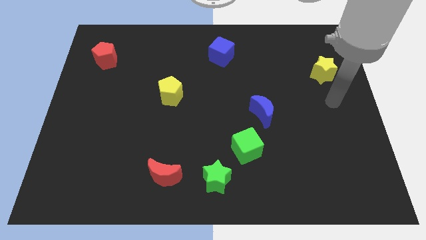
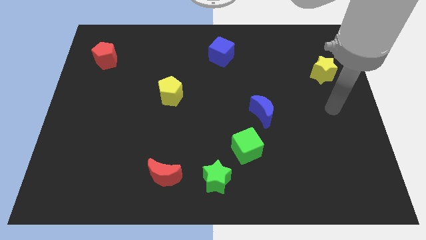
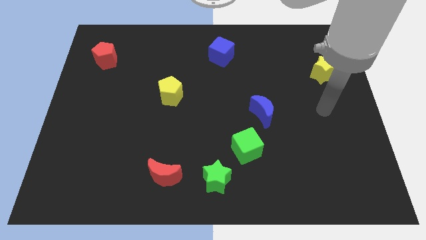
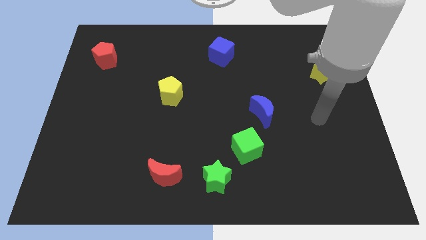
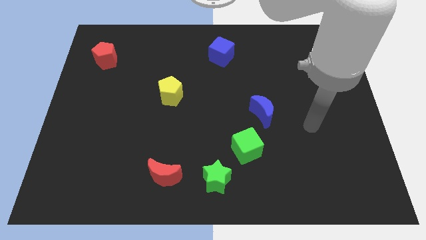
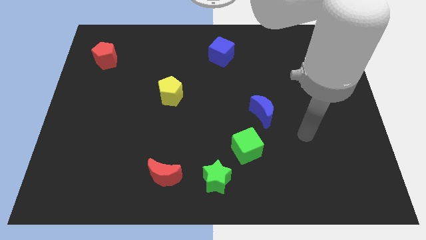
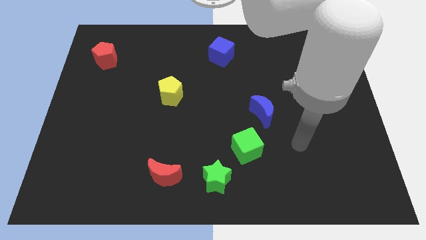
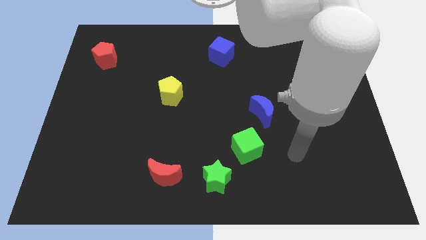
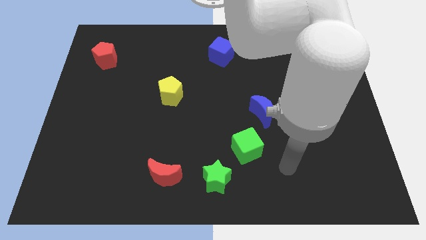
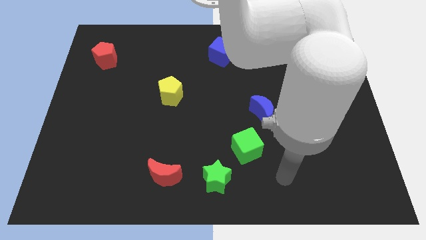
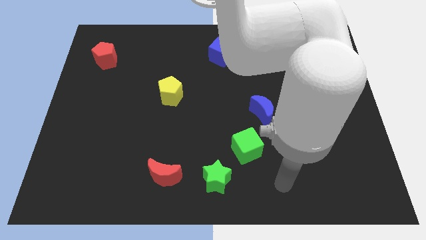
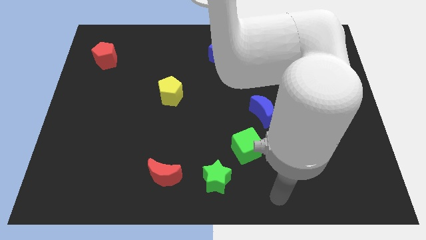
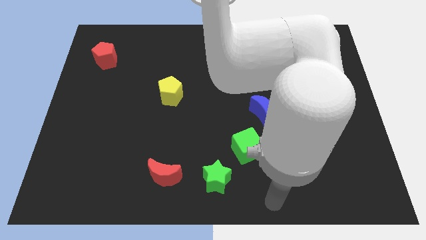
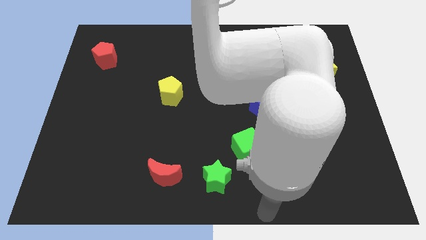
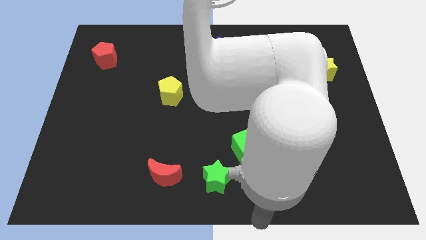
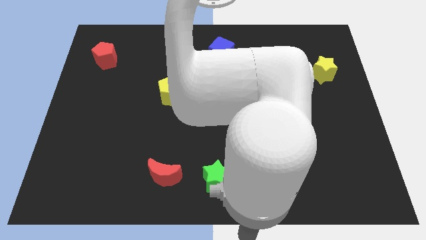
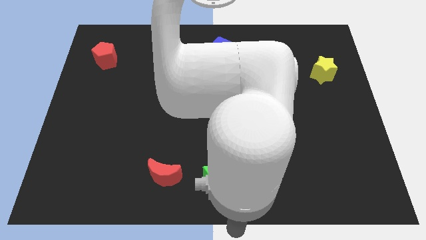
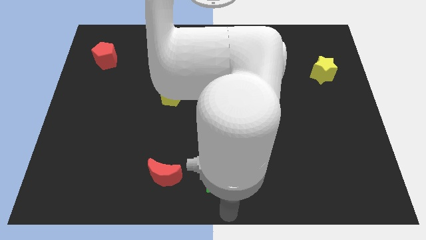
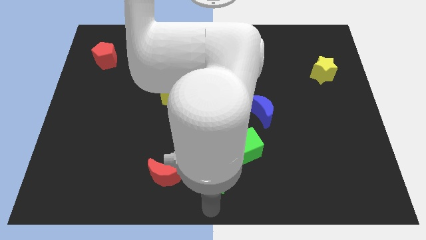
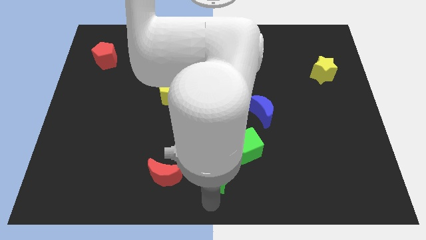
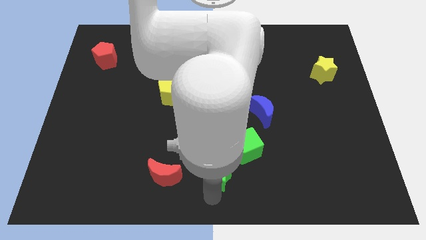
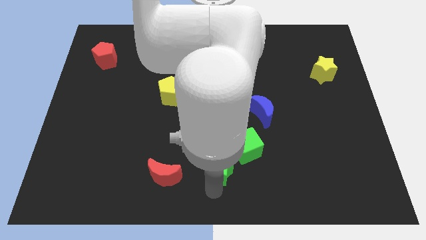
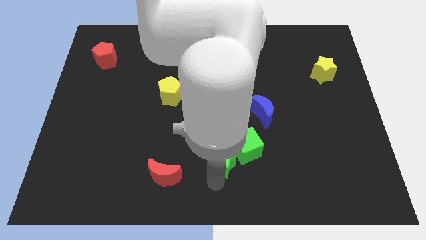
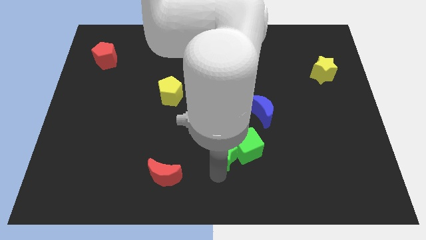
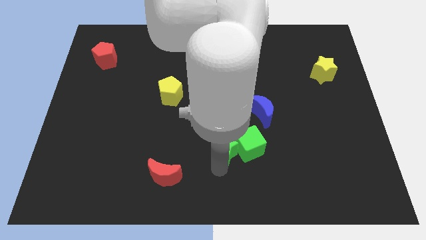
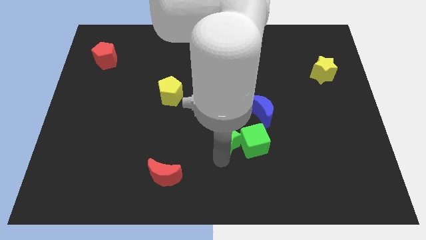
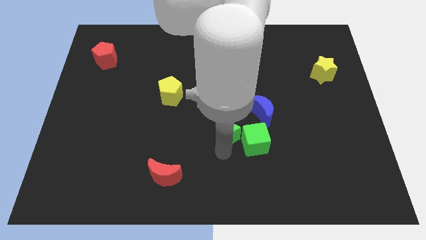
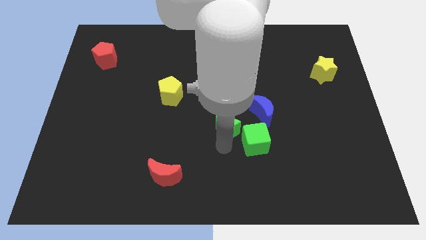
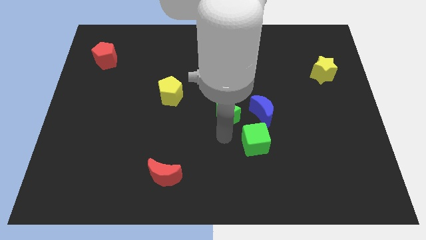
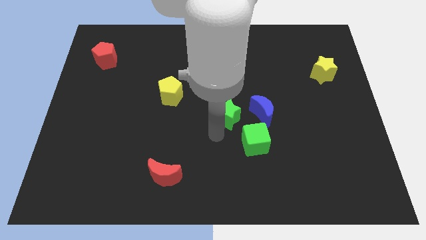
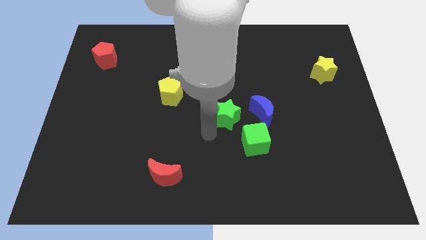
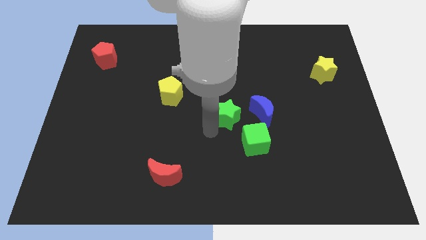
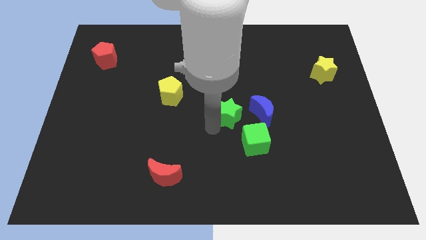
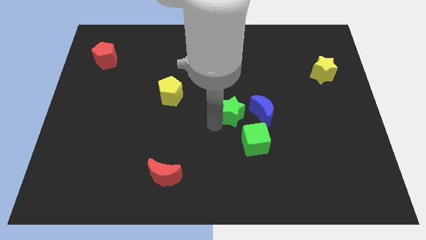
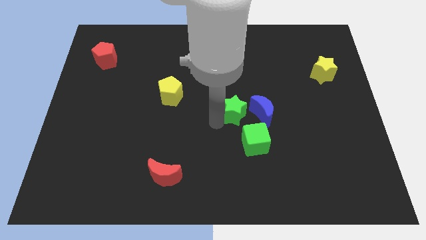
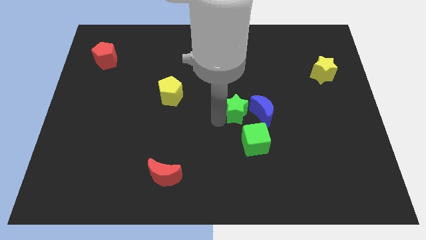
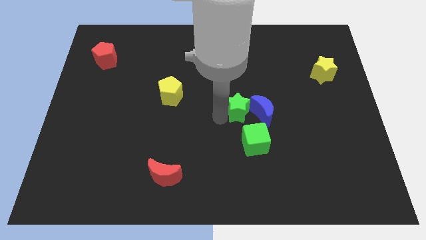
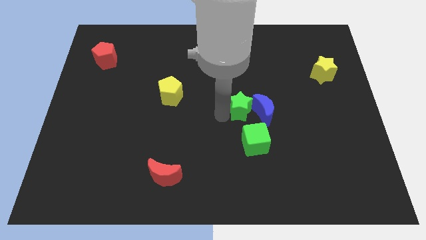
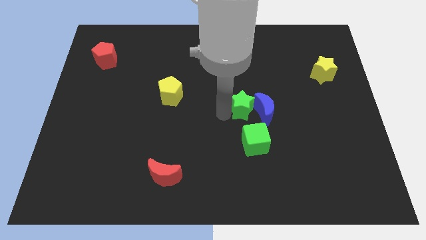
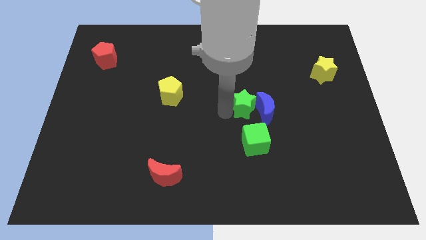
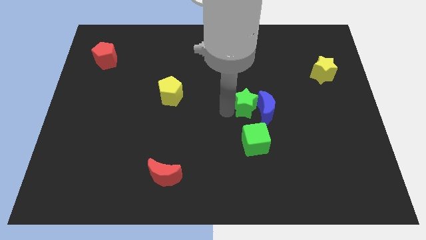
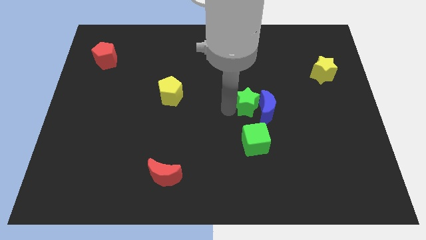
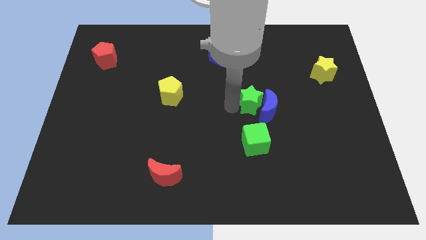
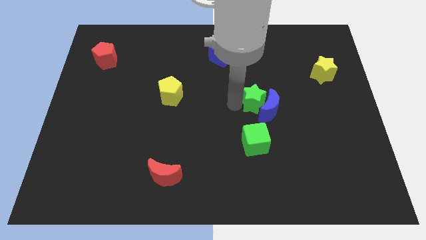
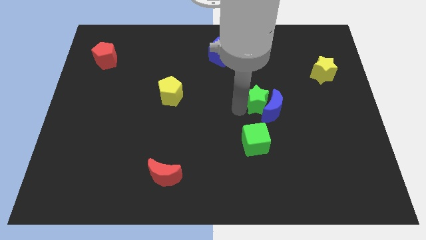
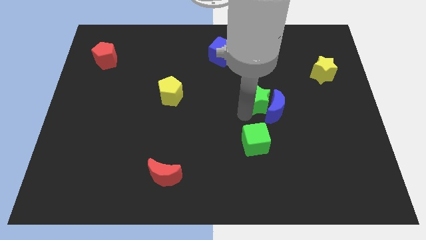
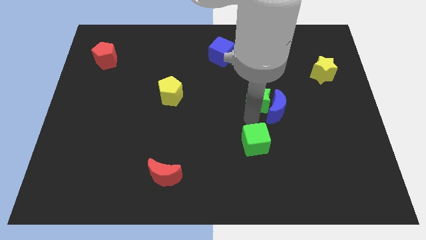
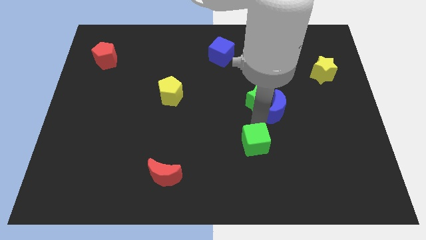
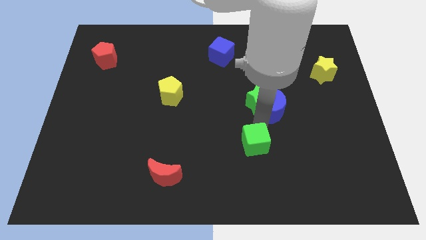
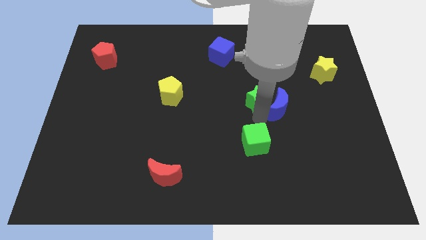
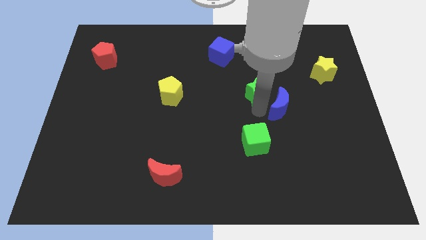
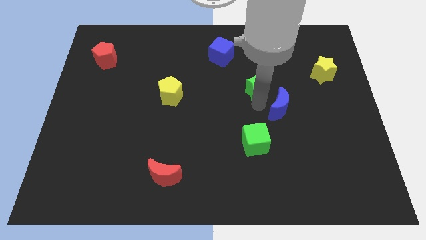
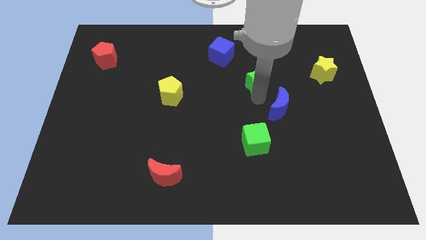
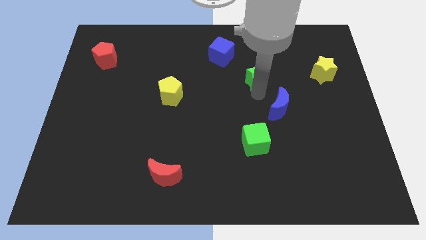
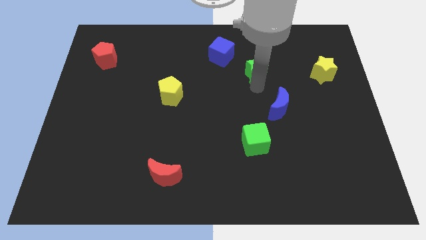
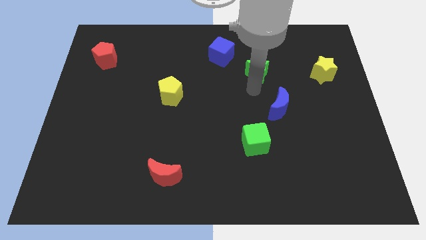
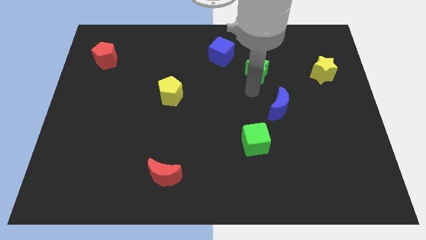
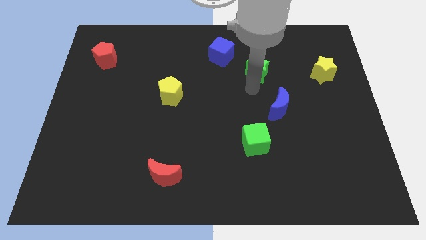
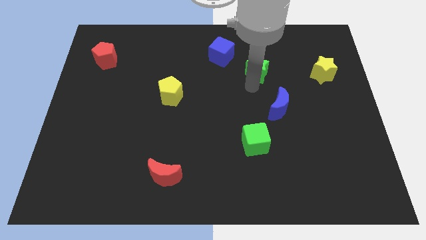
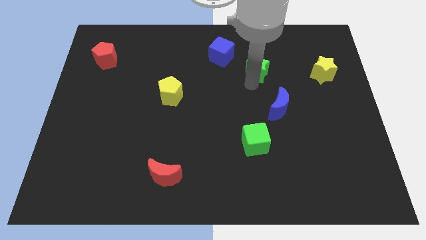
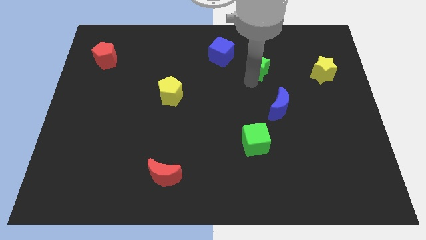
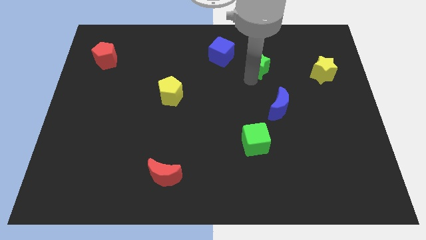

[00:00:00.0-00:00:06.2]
push the green star to the right of the blue cube

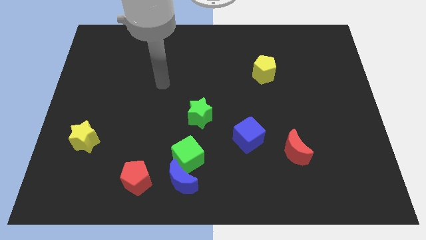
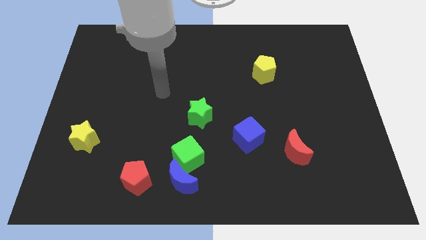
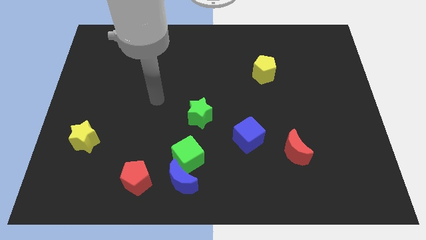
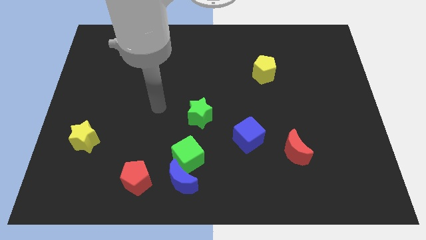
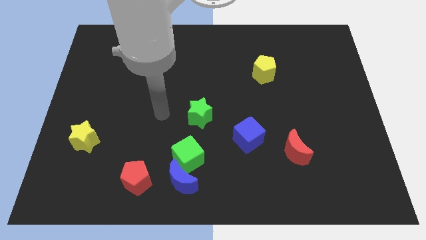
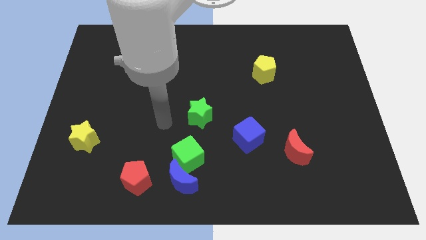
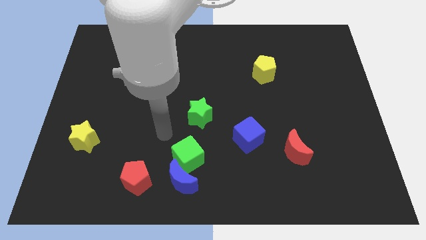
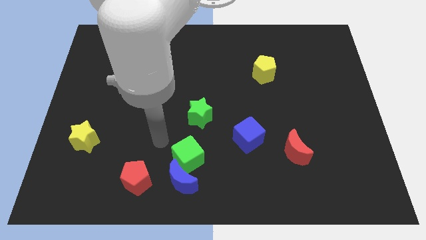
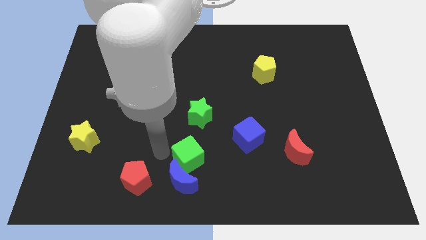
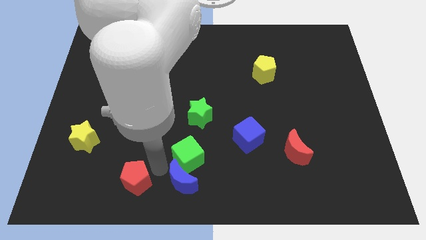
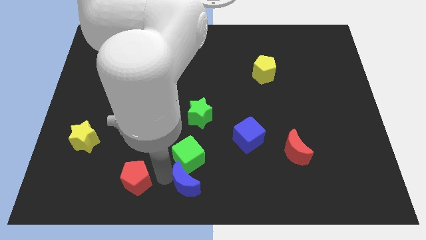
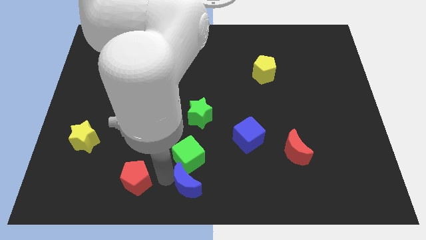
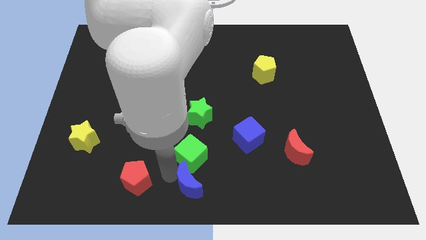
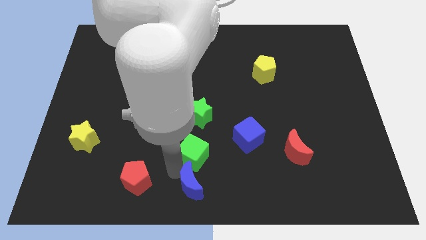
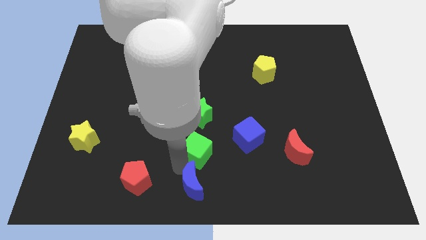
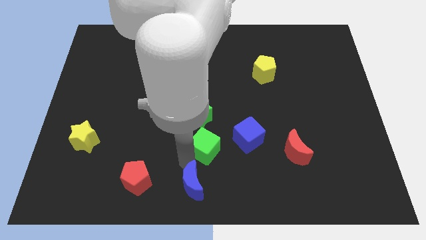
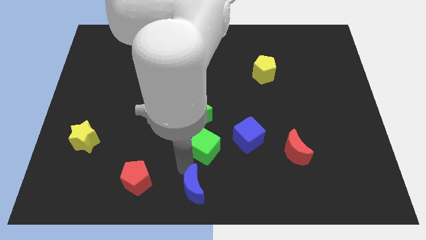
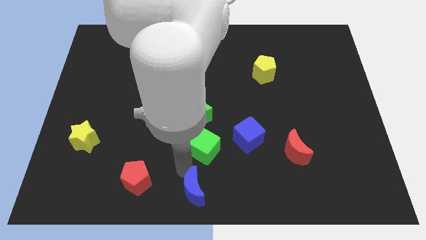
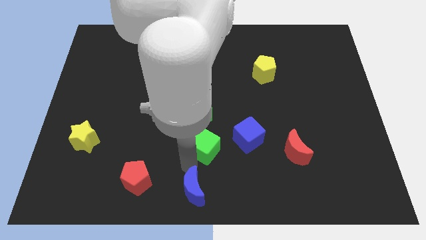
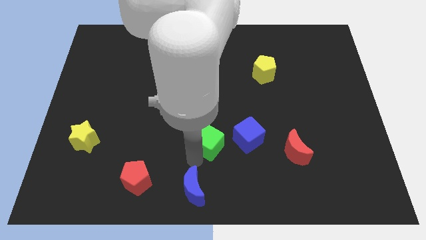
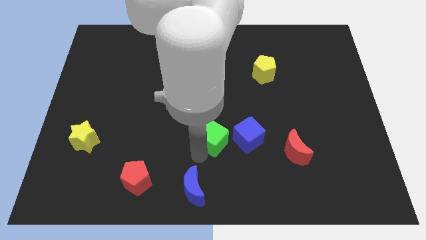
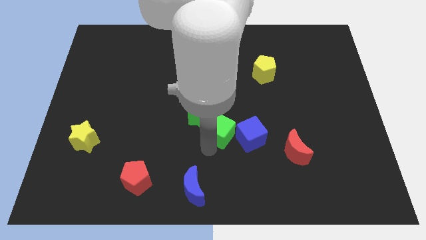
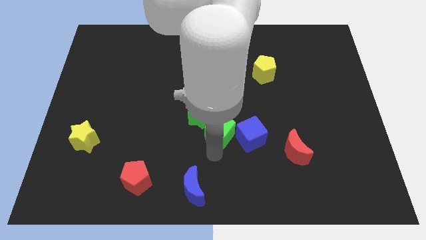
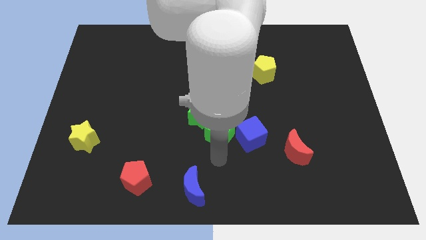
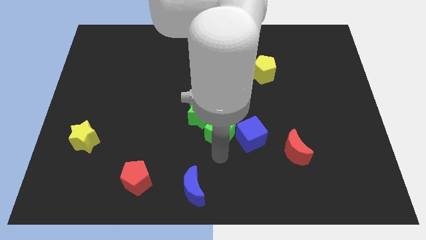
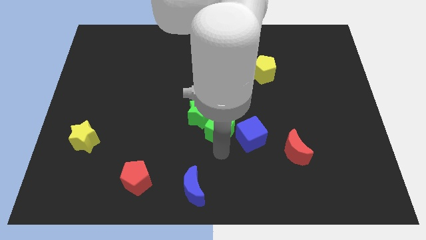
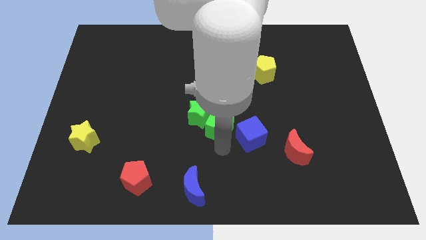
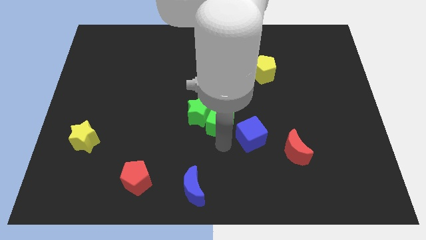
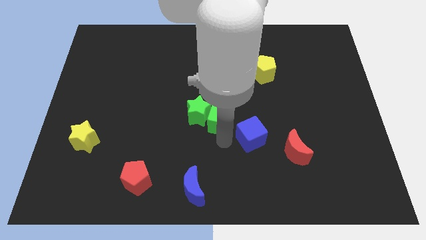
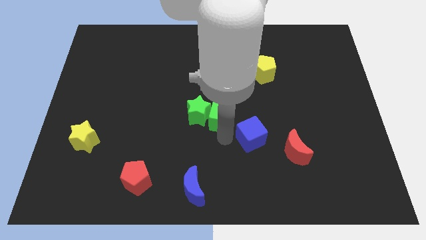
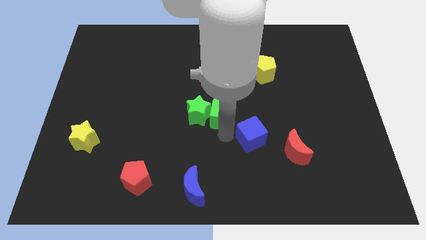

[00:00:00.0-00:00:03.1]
push the green cube to the top right of the green star
